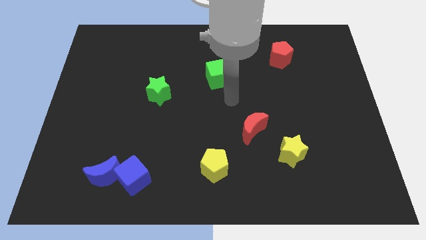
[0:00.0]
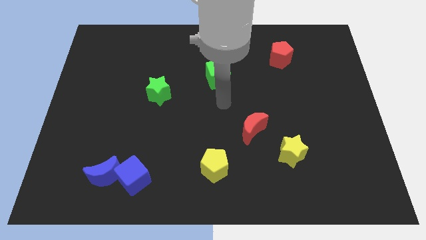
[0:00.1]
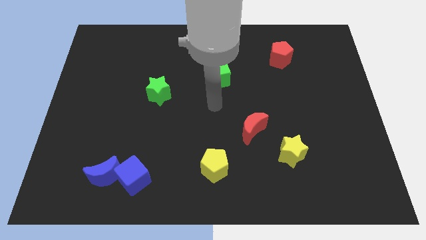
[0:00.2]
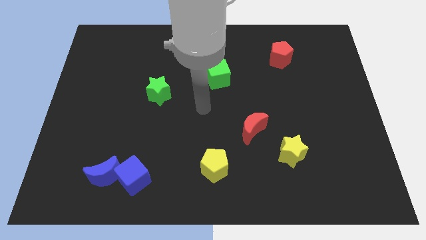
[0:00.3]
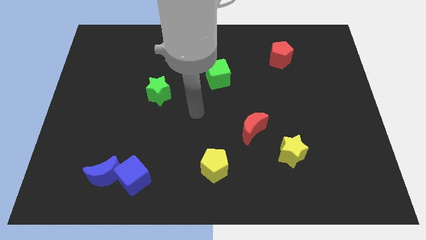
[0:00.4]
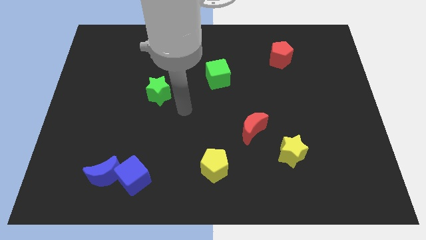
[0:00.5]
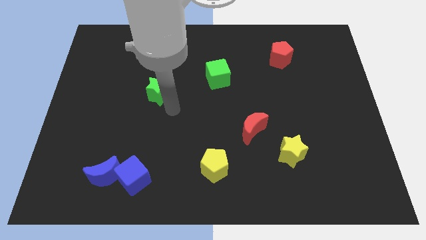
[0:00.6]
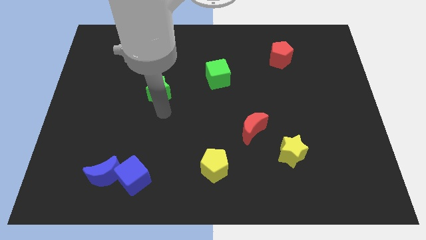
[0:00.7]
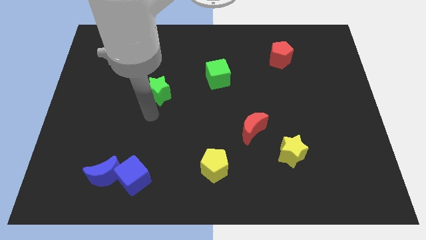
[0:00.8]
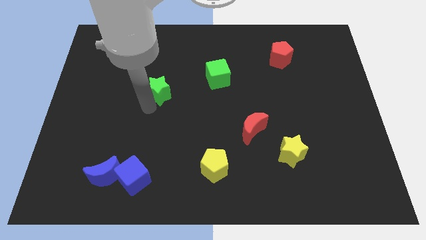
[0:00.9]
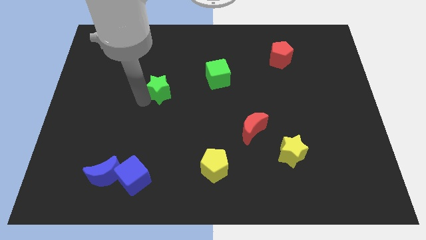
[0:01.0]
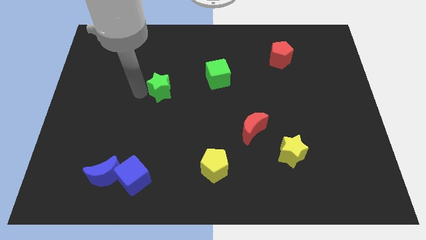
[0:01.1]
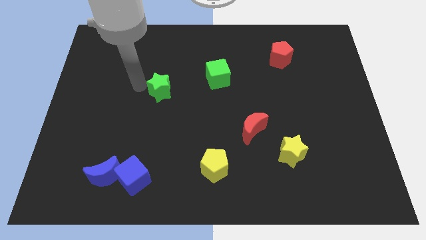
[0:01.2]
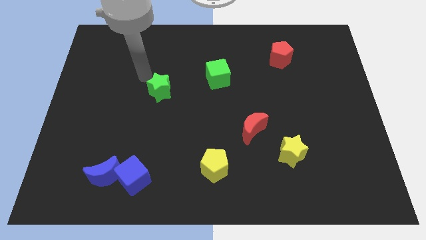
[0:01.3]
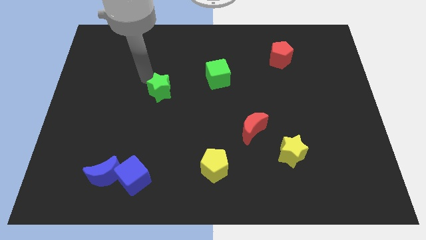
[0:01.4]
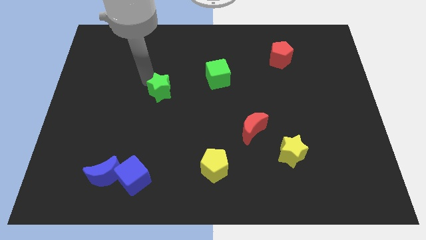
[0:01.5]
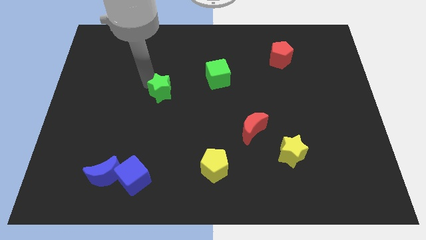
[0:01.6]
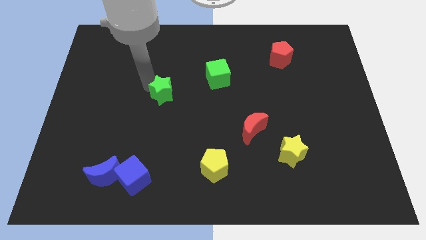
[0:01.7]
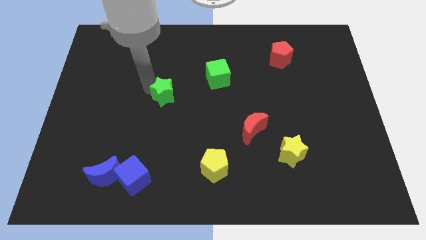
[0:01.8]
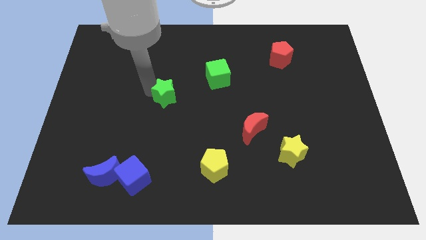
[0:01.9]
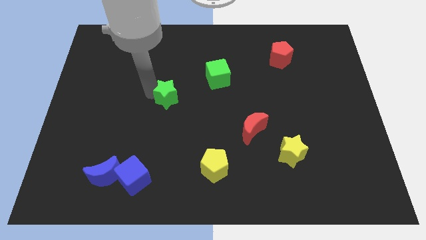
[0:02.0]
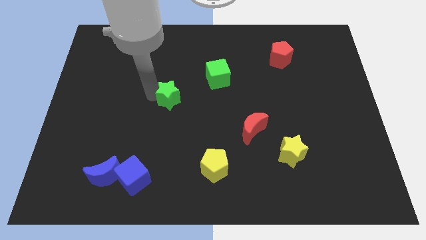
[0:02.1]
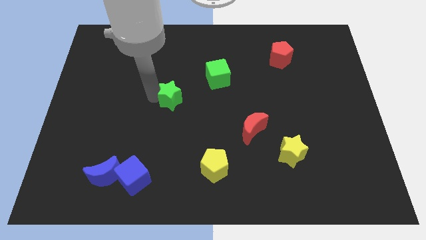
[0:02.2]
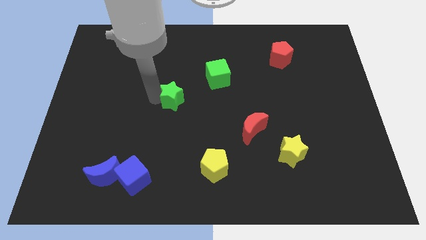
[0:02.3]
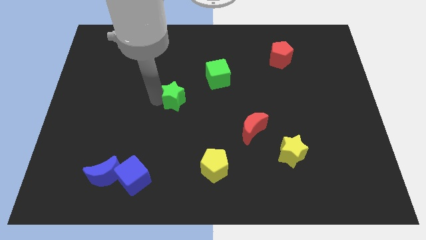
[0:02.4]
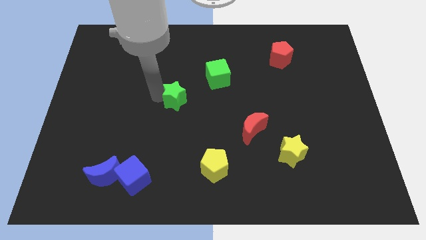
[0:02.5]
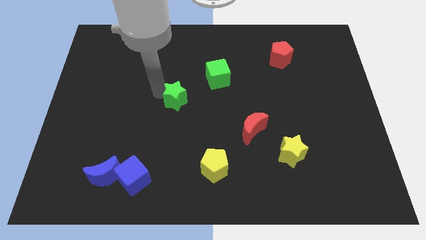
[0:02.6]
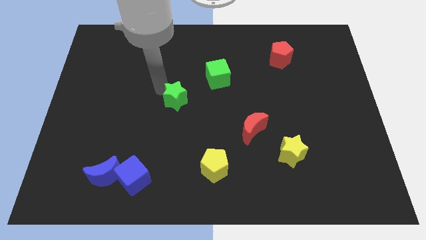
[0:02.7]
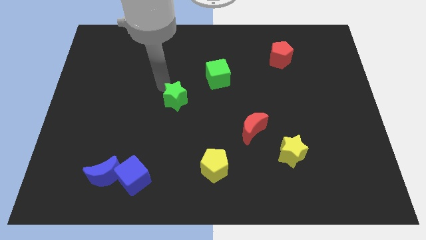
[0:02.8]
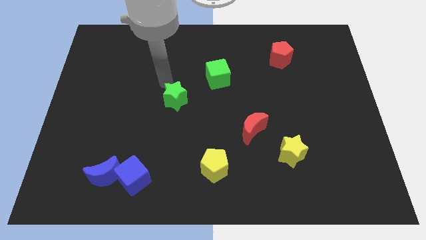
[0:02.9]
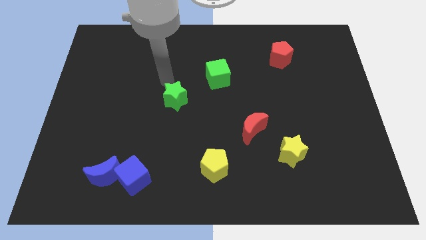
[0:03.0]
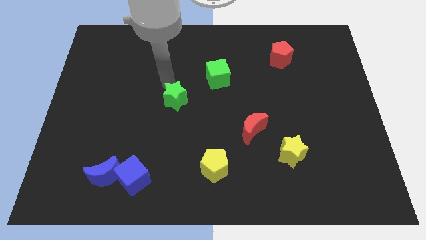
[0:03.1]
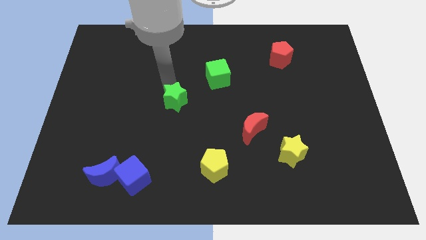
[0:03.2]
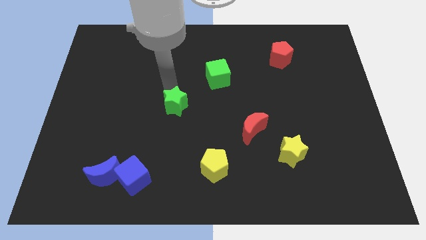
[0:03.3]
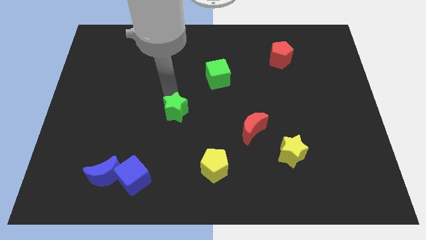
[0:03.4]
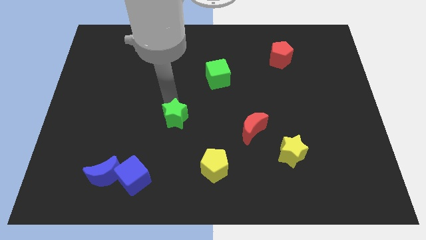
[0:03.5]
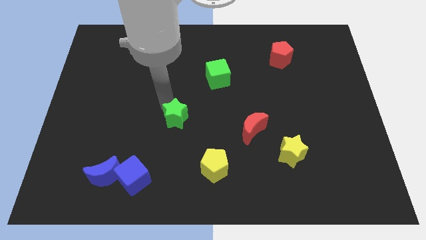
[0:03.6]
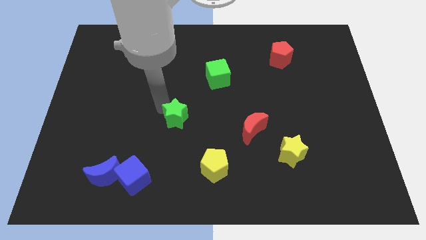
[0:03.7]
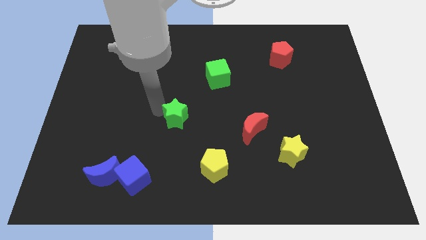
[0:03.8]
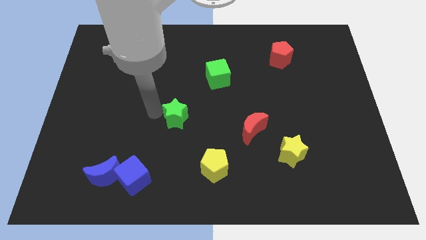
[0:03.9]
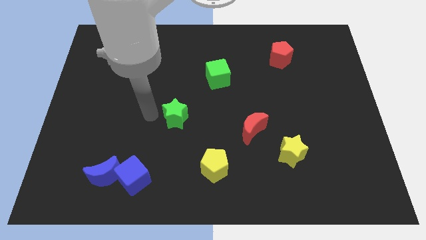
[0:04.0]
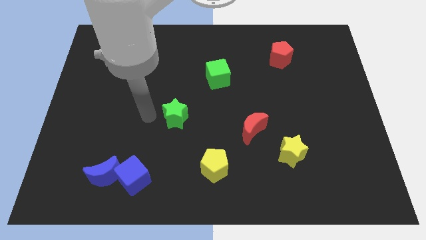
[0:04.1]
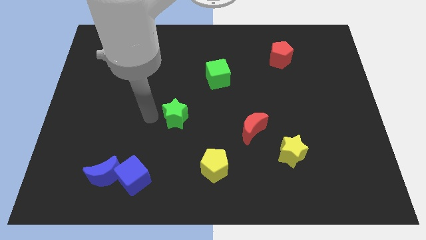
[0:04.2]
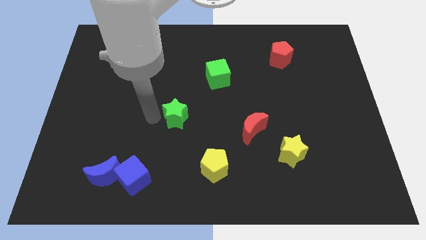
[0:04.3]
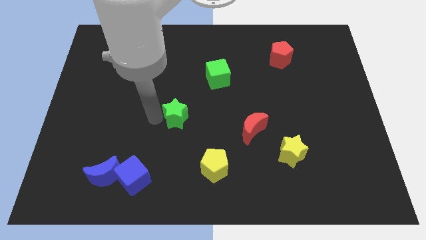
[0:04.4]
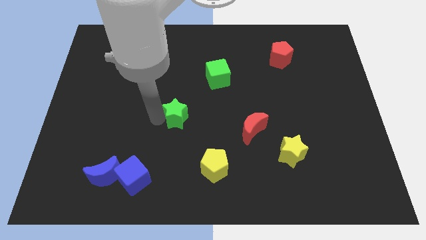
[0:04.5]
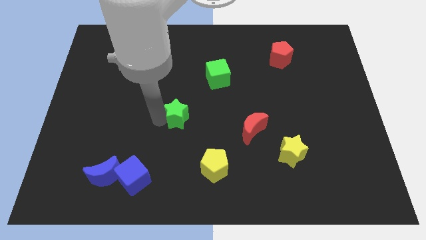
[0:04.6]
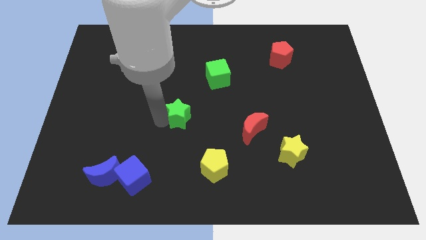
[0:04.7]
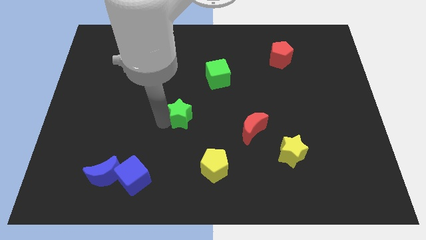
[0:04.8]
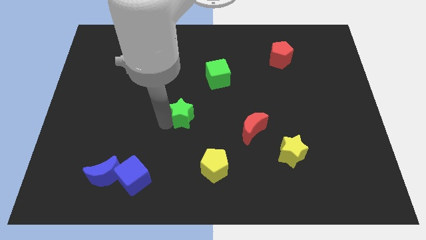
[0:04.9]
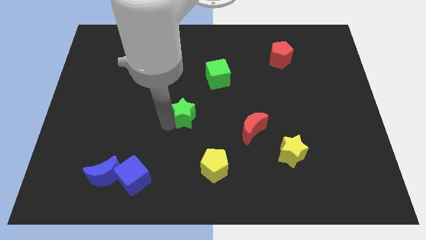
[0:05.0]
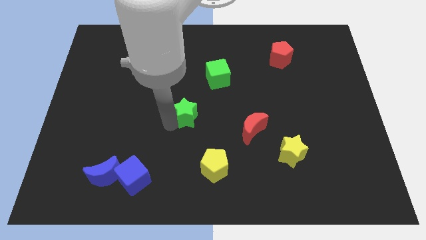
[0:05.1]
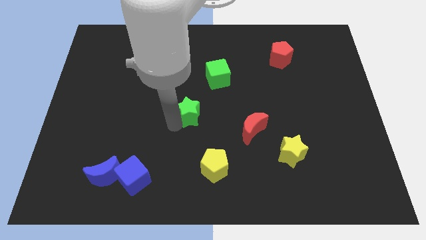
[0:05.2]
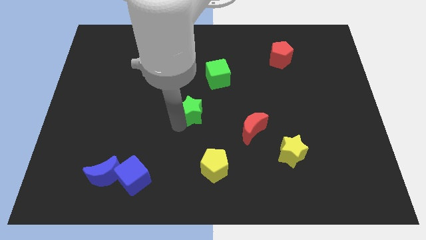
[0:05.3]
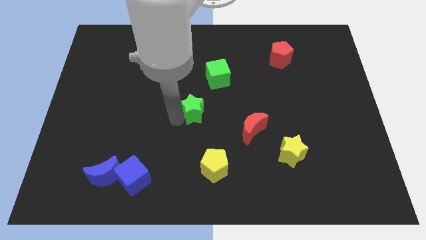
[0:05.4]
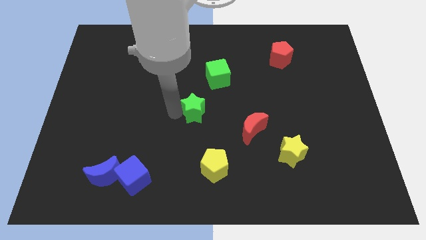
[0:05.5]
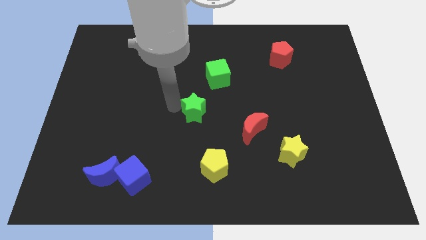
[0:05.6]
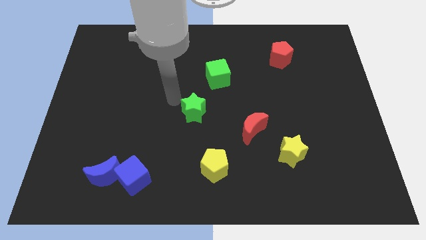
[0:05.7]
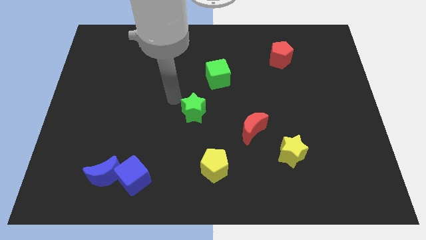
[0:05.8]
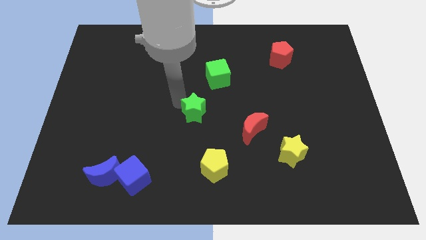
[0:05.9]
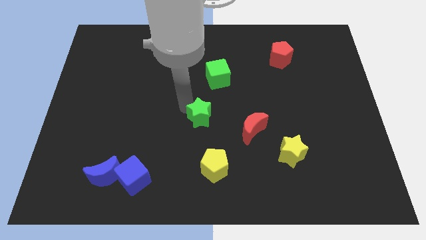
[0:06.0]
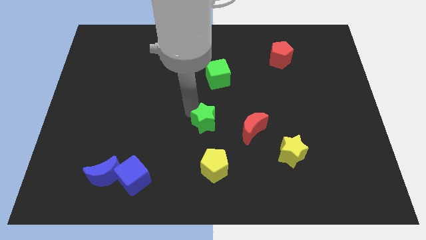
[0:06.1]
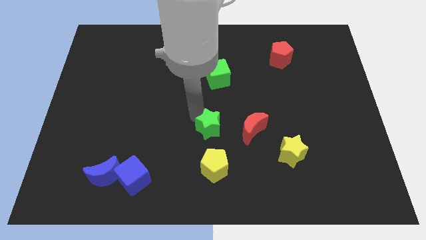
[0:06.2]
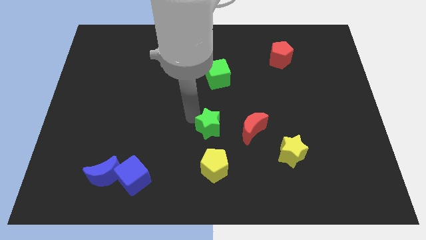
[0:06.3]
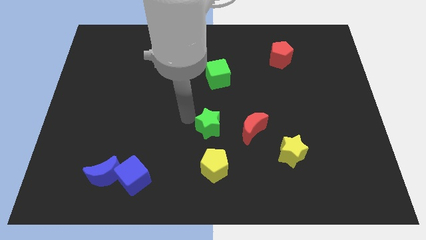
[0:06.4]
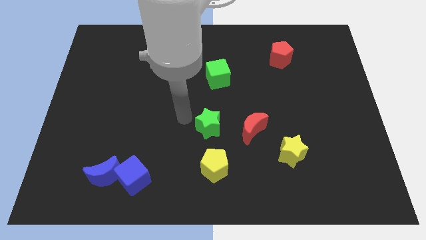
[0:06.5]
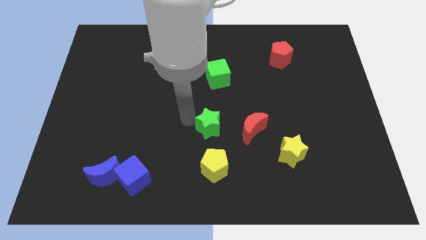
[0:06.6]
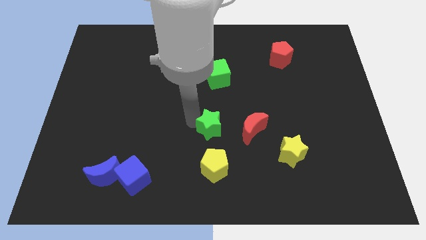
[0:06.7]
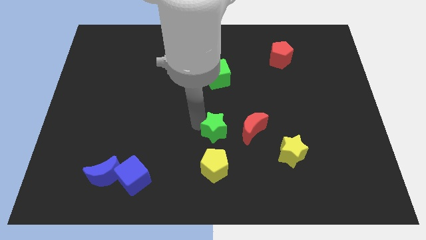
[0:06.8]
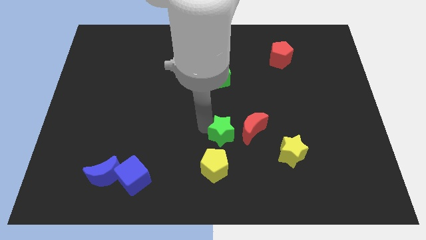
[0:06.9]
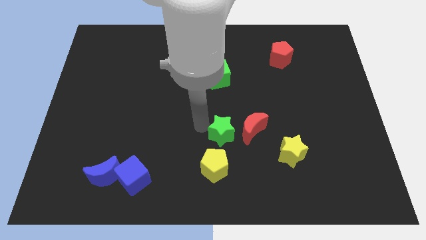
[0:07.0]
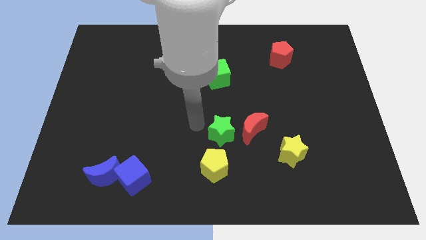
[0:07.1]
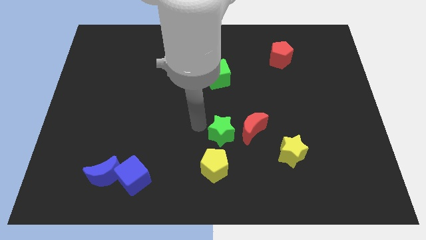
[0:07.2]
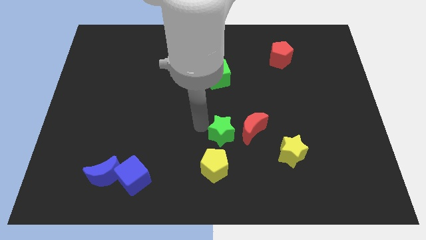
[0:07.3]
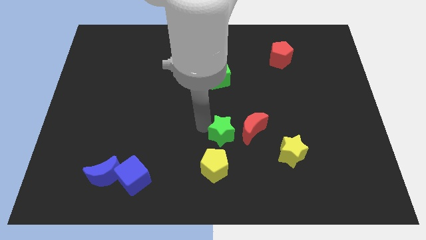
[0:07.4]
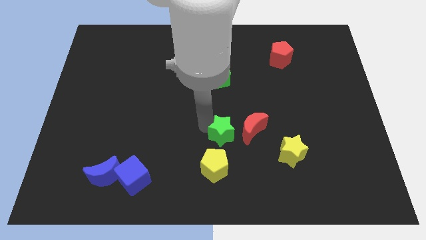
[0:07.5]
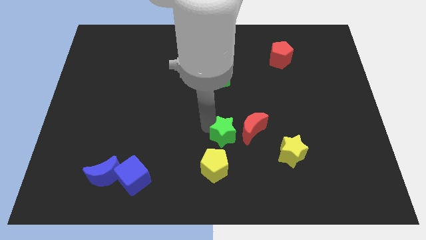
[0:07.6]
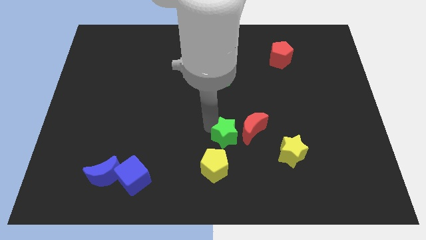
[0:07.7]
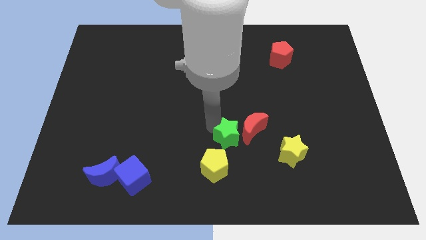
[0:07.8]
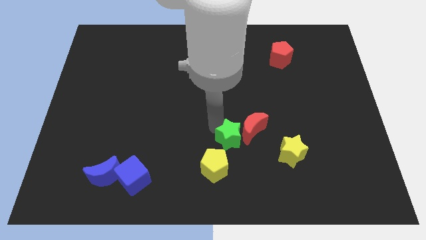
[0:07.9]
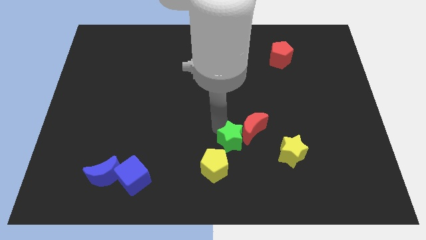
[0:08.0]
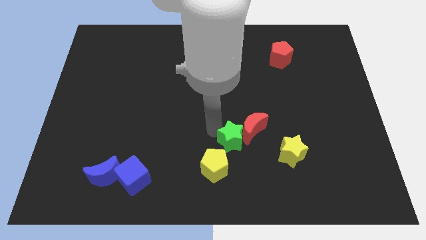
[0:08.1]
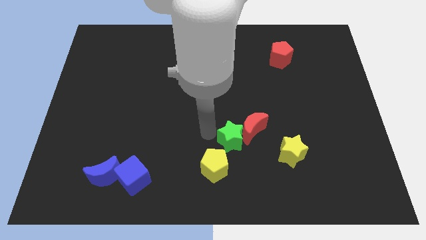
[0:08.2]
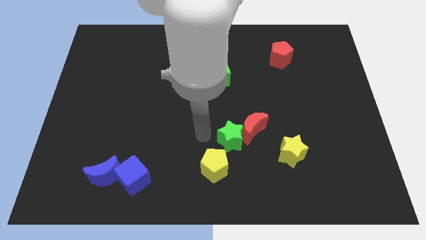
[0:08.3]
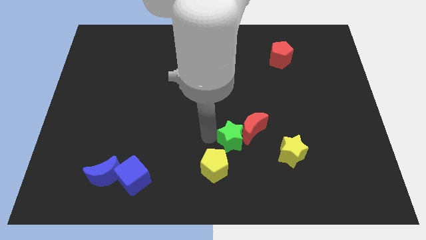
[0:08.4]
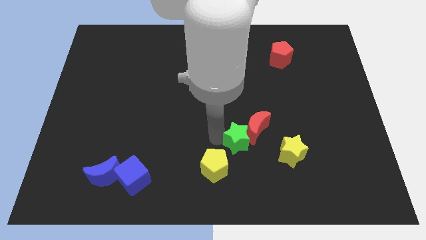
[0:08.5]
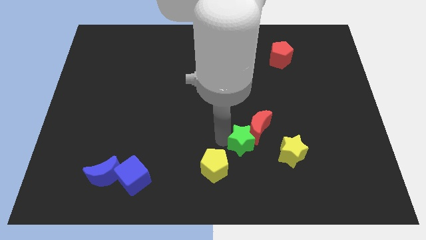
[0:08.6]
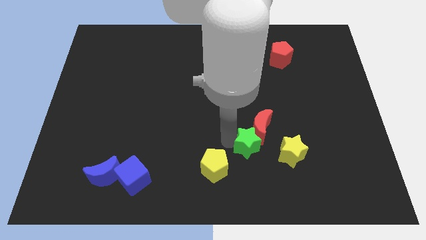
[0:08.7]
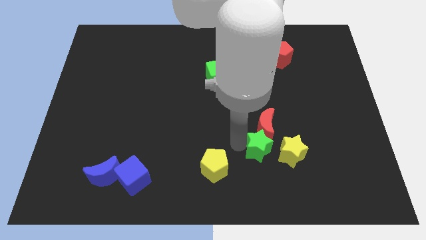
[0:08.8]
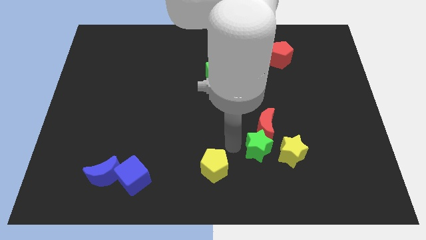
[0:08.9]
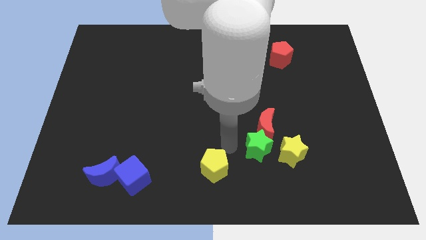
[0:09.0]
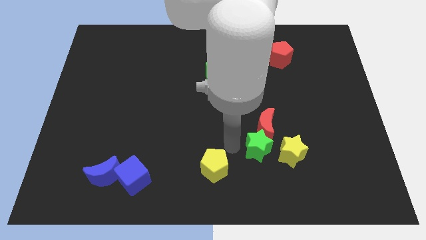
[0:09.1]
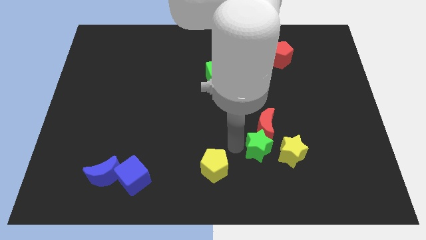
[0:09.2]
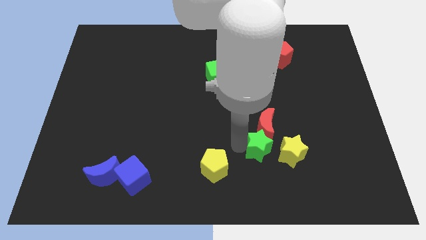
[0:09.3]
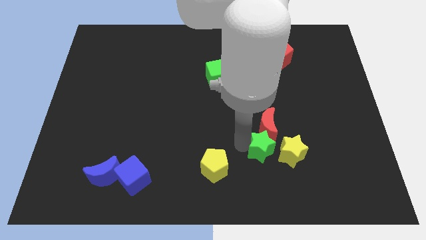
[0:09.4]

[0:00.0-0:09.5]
move the green star towards the yellow star
